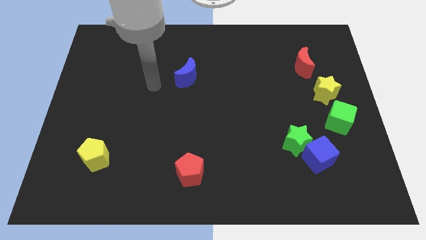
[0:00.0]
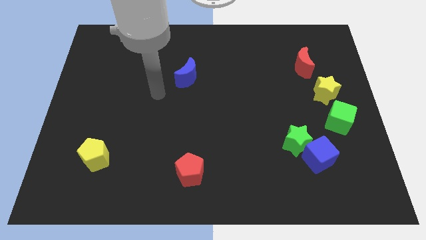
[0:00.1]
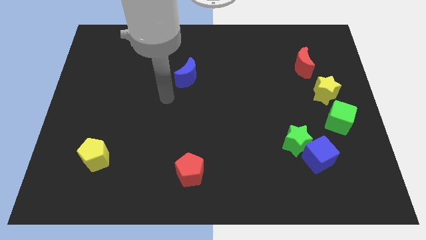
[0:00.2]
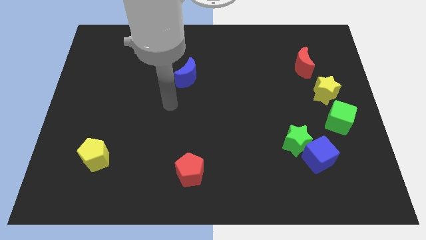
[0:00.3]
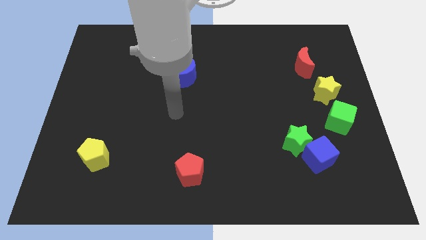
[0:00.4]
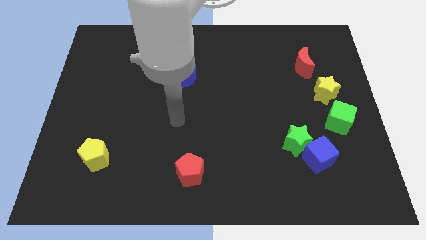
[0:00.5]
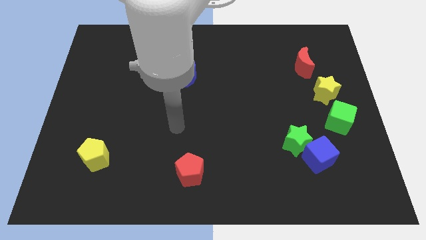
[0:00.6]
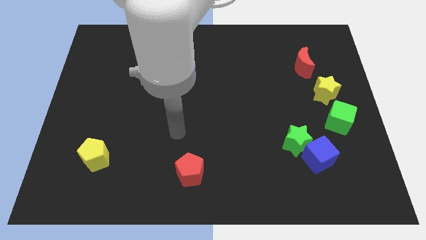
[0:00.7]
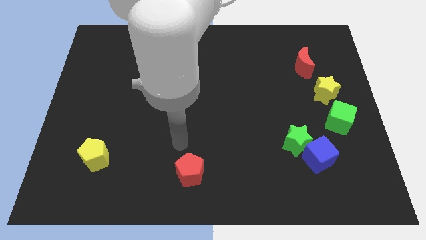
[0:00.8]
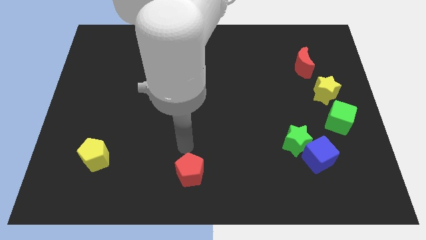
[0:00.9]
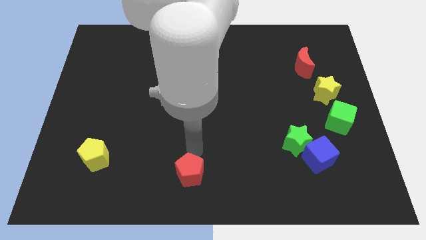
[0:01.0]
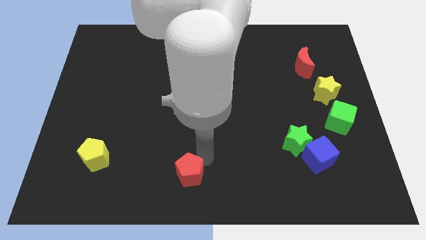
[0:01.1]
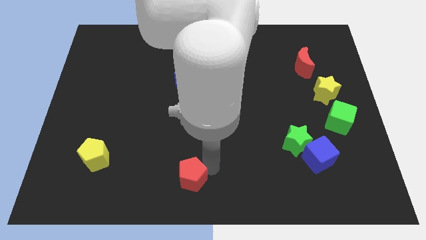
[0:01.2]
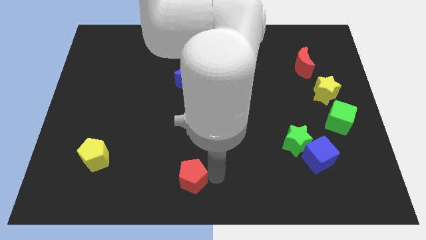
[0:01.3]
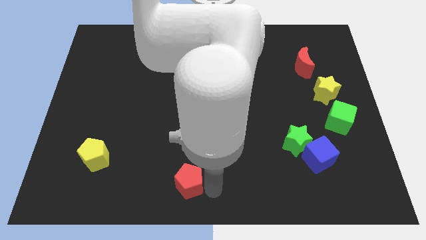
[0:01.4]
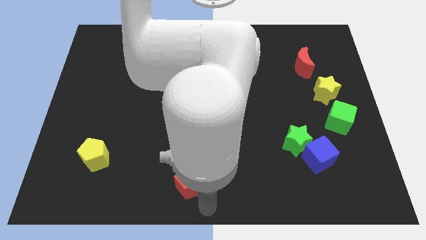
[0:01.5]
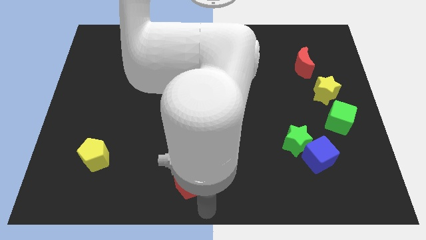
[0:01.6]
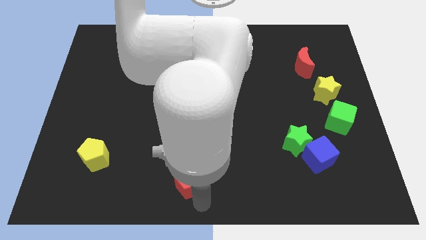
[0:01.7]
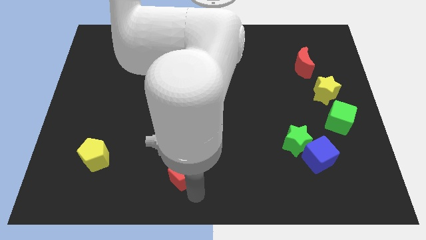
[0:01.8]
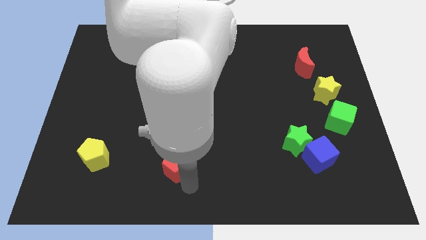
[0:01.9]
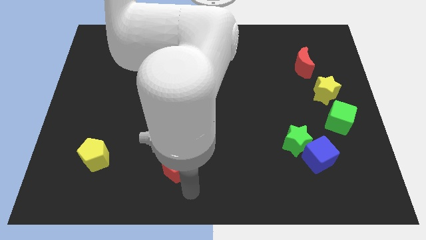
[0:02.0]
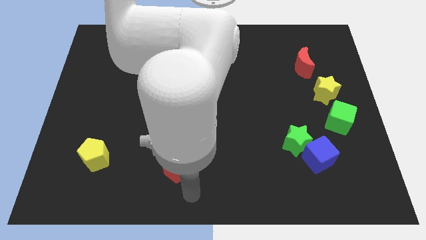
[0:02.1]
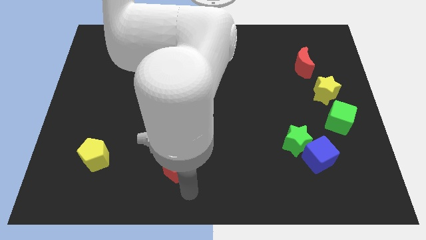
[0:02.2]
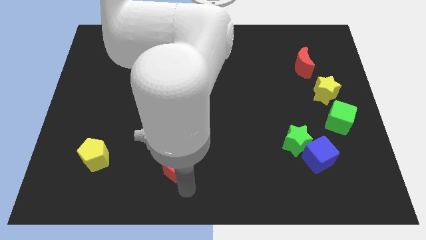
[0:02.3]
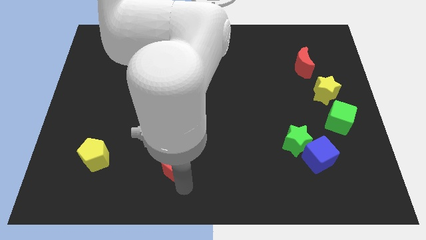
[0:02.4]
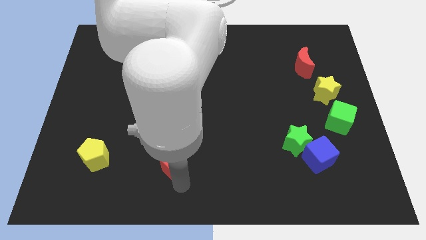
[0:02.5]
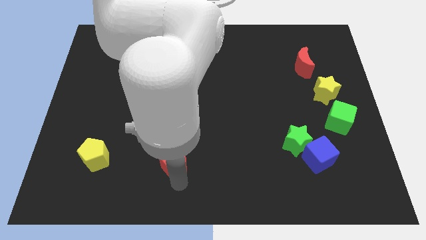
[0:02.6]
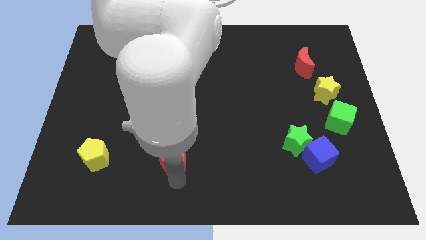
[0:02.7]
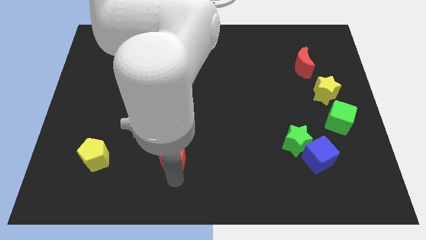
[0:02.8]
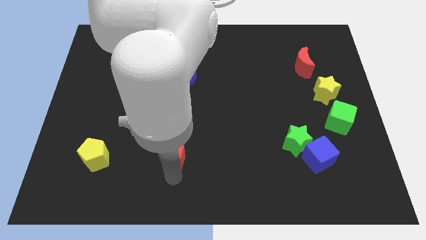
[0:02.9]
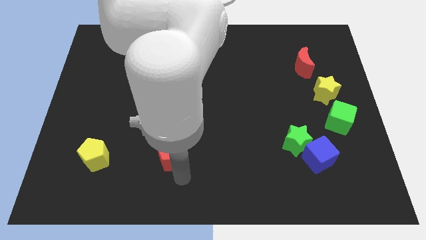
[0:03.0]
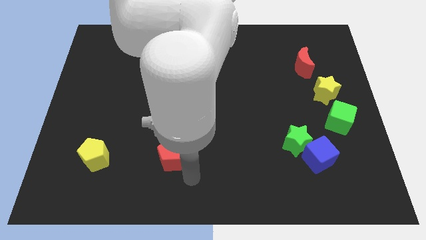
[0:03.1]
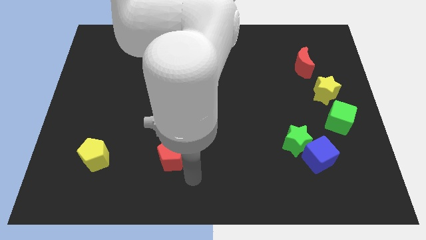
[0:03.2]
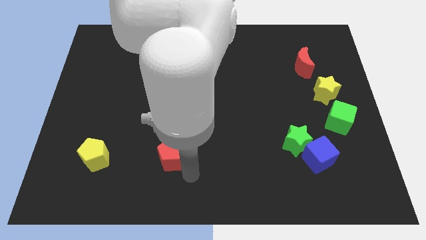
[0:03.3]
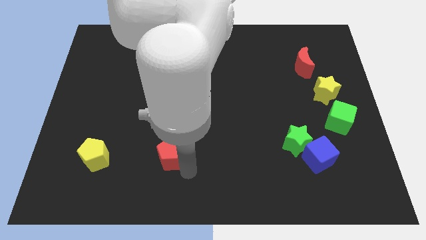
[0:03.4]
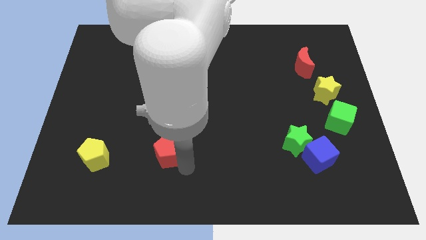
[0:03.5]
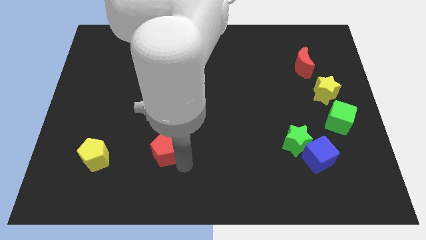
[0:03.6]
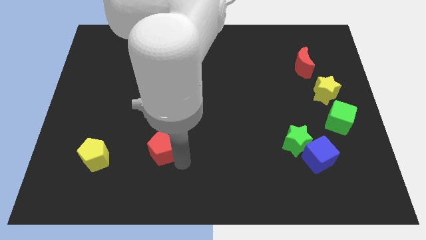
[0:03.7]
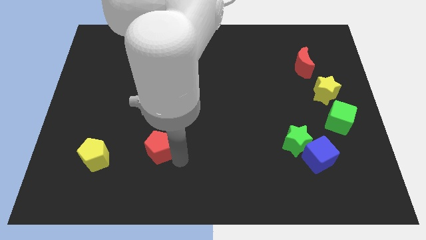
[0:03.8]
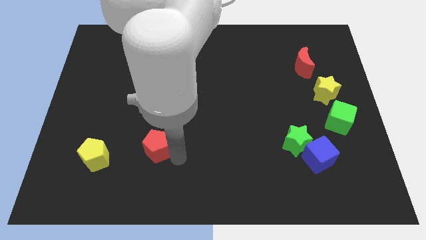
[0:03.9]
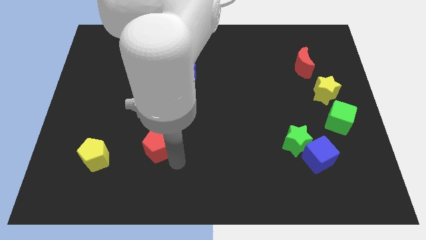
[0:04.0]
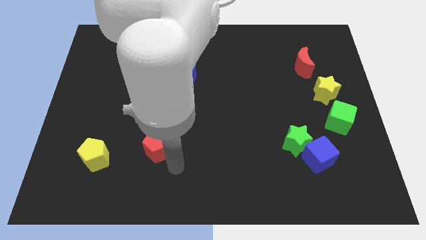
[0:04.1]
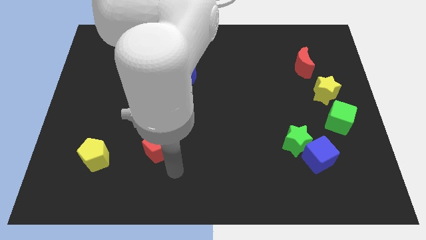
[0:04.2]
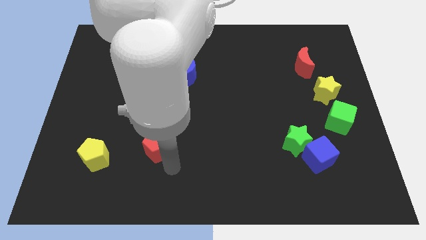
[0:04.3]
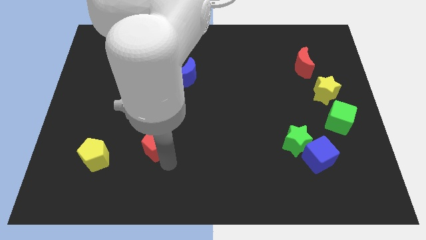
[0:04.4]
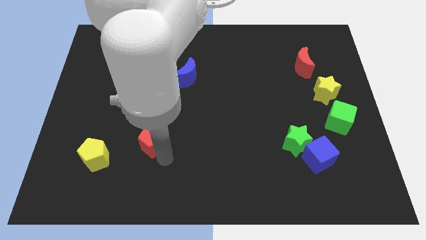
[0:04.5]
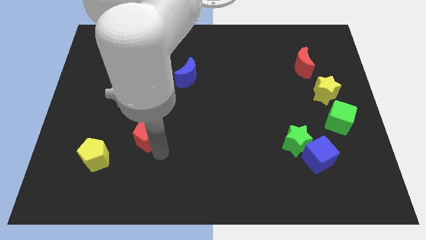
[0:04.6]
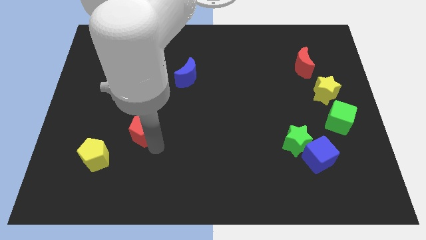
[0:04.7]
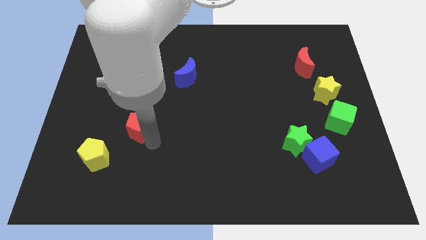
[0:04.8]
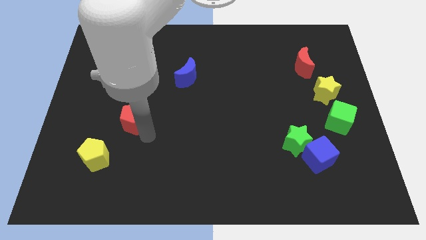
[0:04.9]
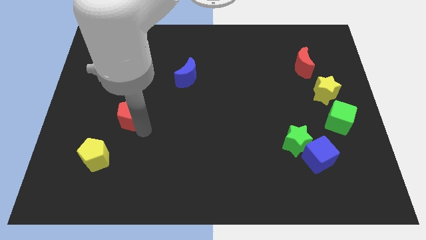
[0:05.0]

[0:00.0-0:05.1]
slide the red pentagon upwards and left diagonally

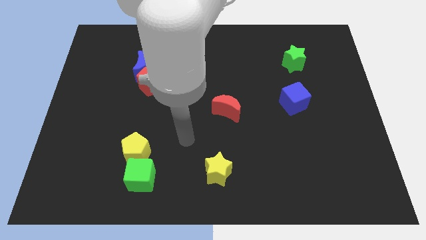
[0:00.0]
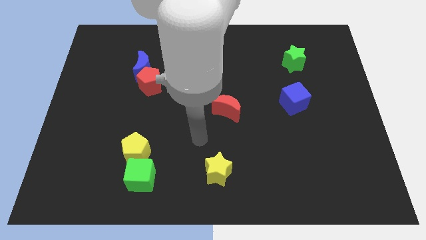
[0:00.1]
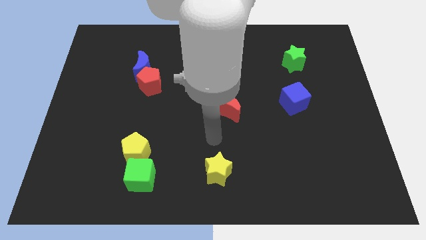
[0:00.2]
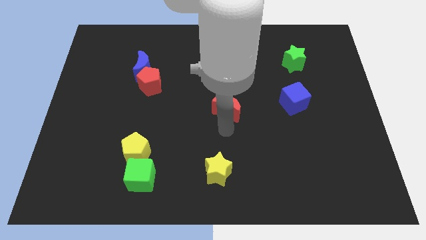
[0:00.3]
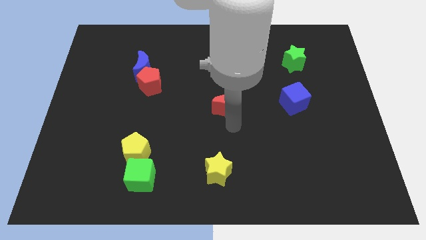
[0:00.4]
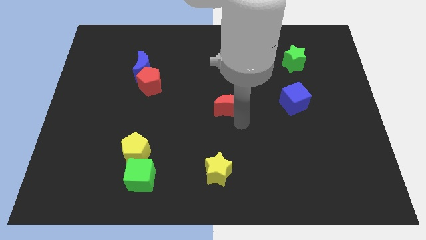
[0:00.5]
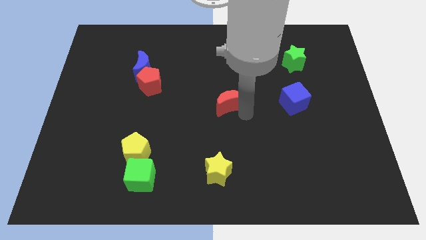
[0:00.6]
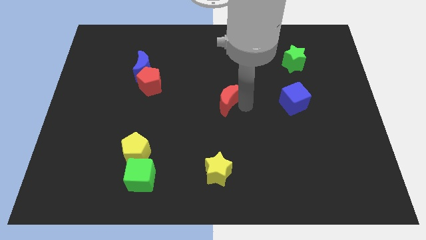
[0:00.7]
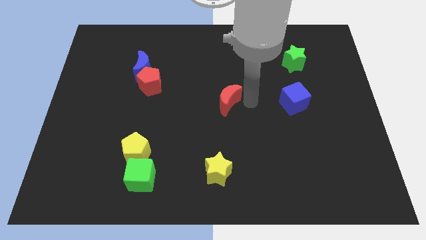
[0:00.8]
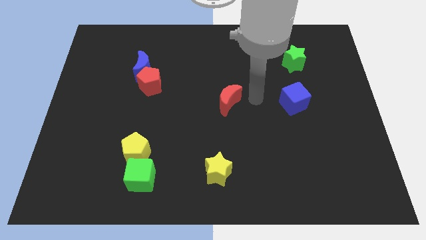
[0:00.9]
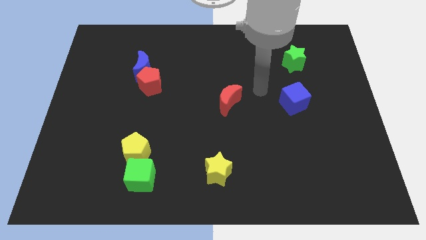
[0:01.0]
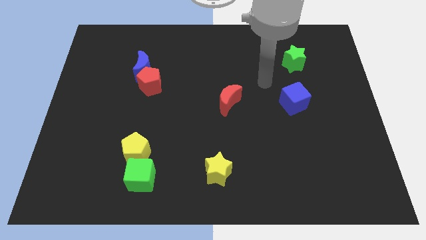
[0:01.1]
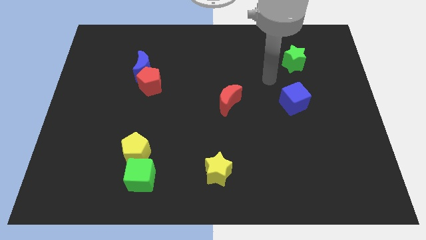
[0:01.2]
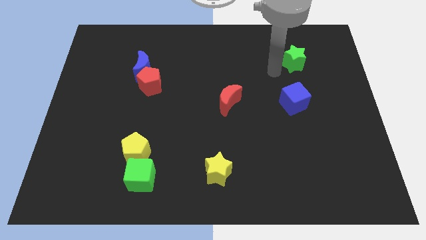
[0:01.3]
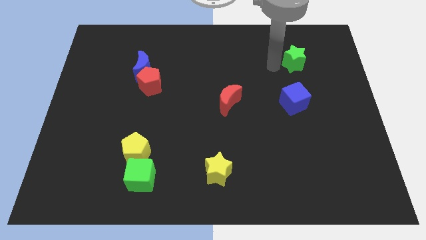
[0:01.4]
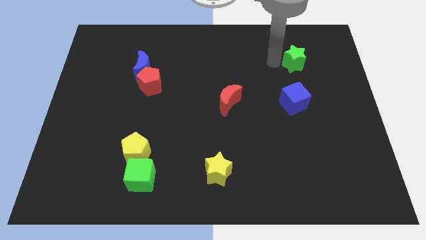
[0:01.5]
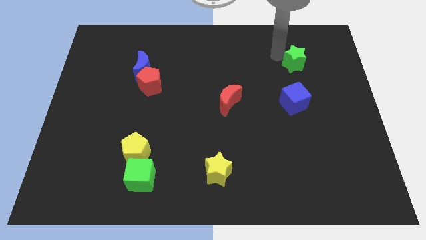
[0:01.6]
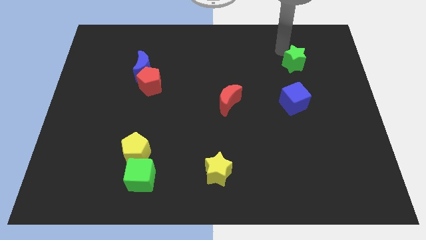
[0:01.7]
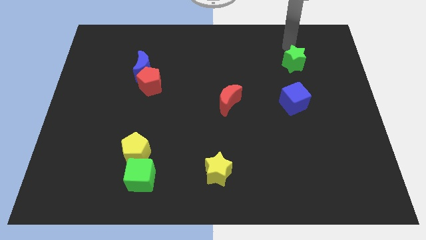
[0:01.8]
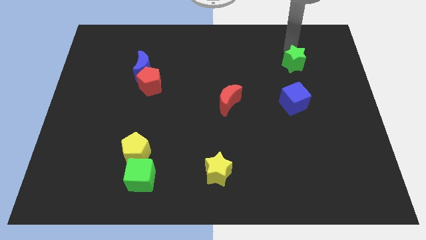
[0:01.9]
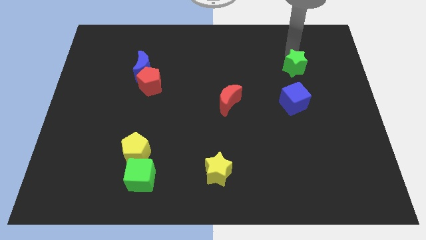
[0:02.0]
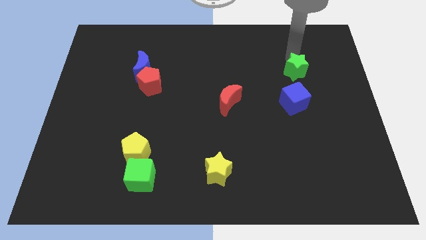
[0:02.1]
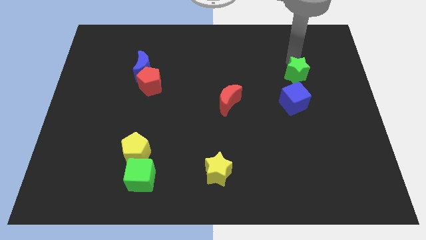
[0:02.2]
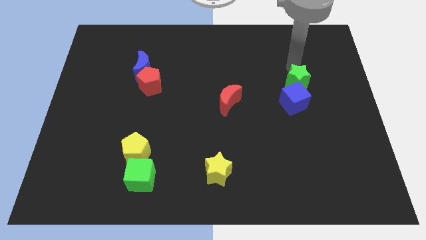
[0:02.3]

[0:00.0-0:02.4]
slightly move the green star downwards

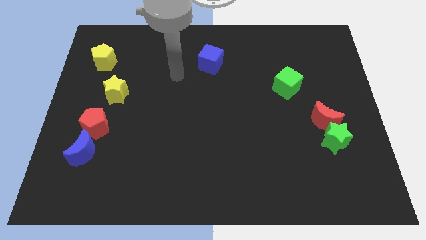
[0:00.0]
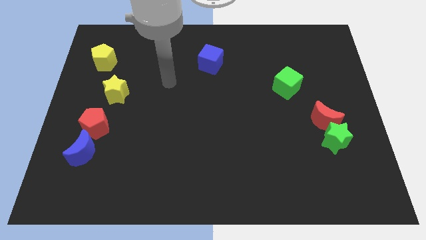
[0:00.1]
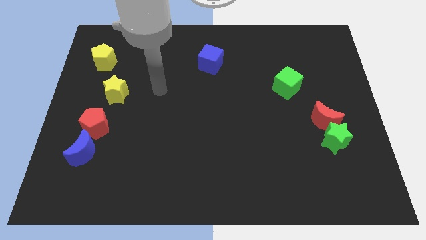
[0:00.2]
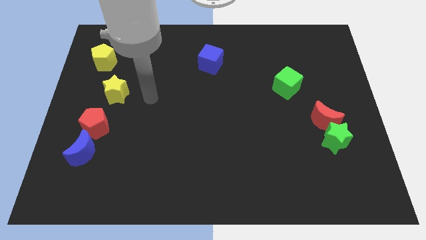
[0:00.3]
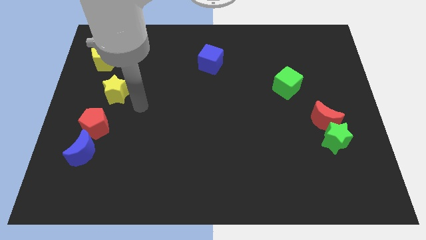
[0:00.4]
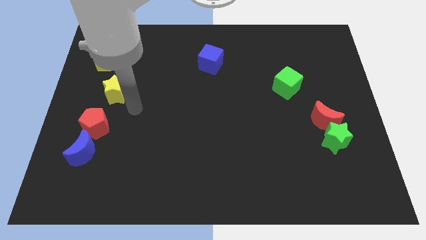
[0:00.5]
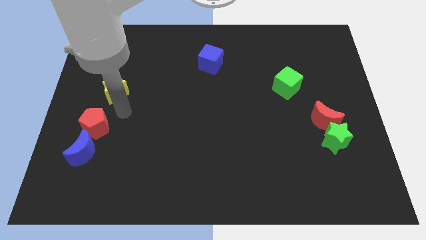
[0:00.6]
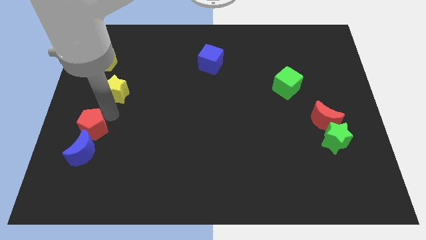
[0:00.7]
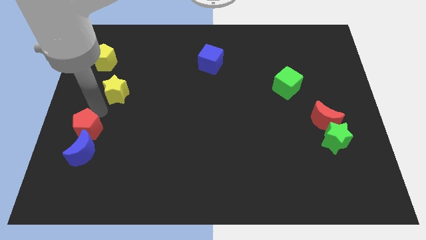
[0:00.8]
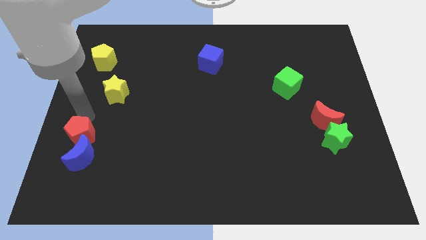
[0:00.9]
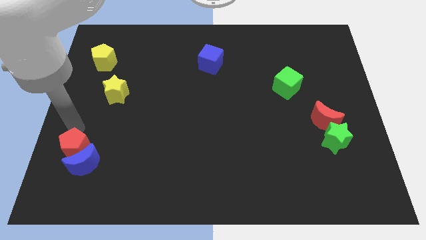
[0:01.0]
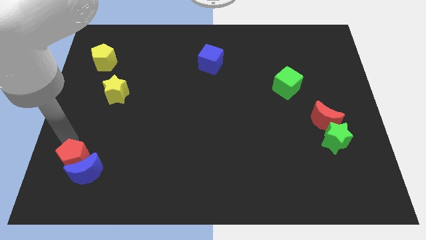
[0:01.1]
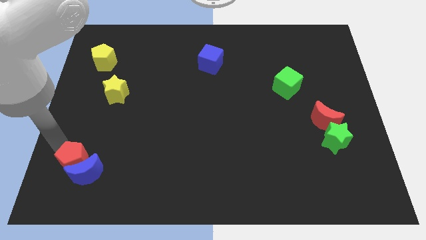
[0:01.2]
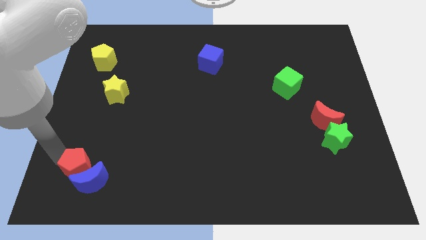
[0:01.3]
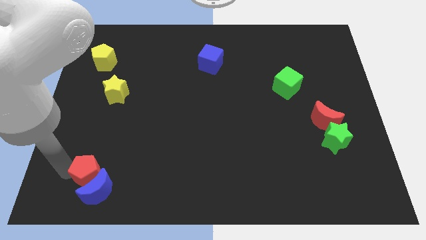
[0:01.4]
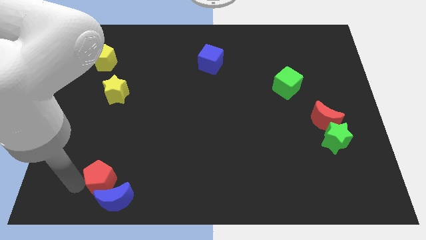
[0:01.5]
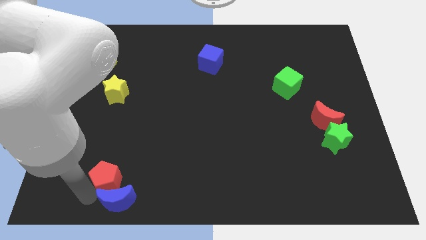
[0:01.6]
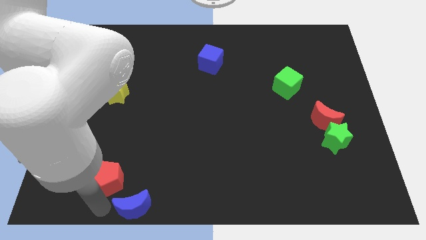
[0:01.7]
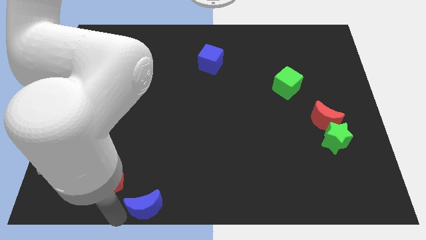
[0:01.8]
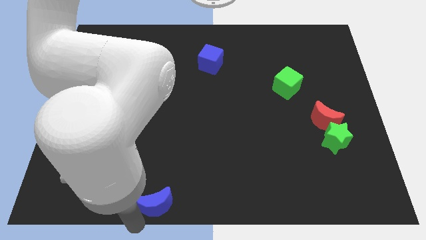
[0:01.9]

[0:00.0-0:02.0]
slide the blue moon to the right a little bit
